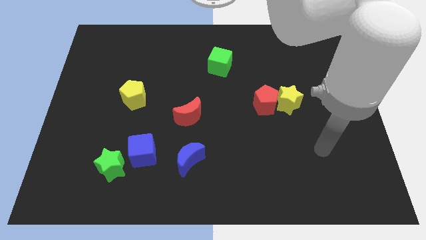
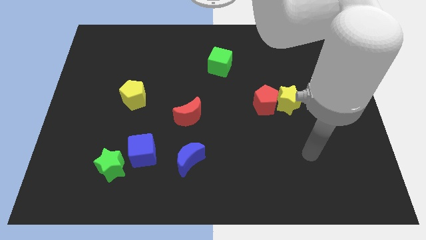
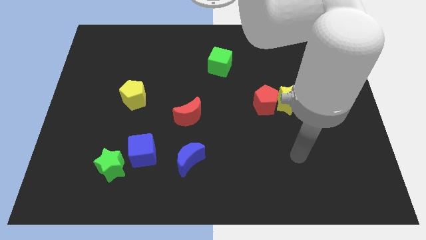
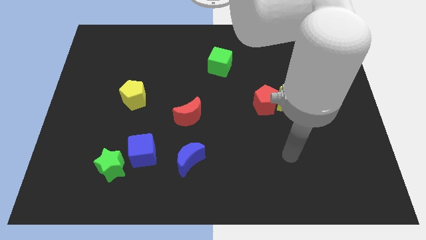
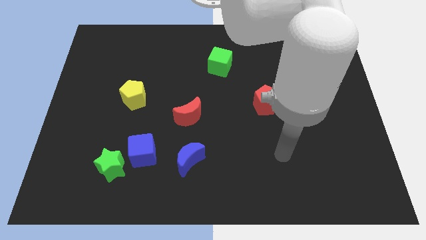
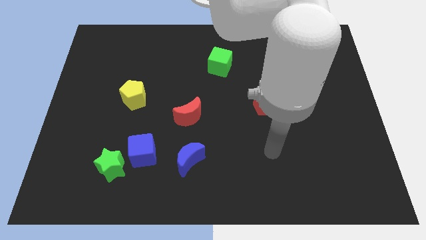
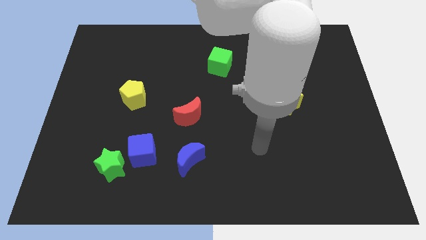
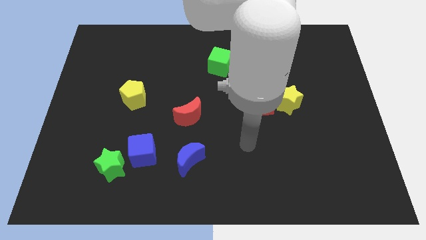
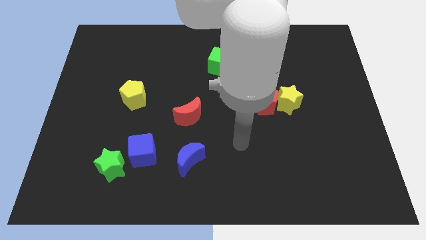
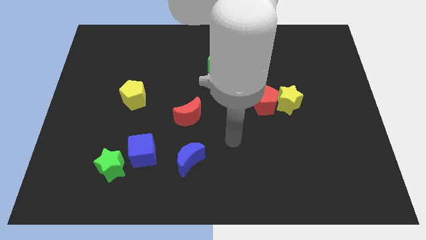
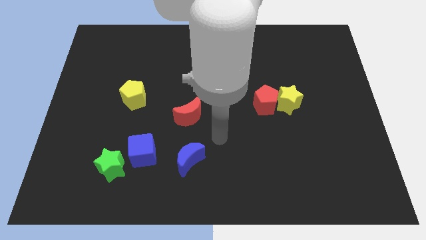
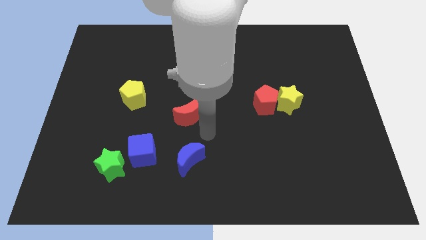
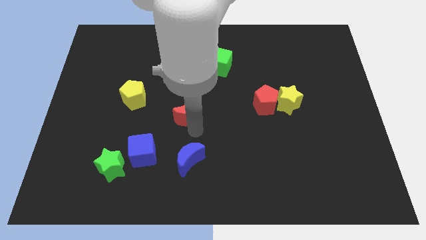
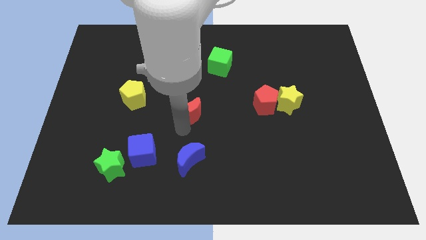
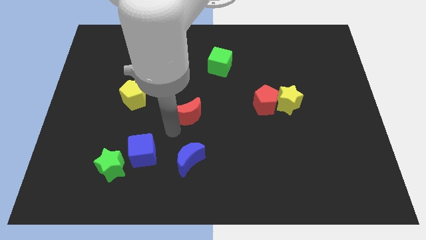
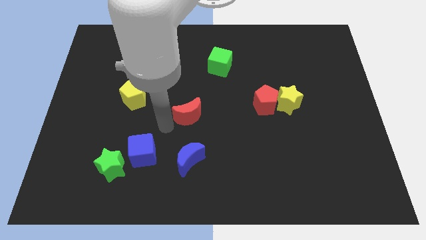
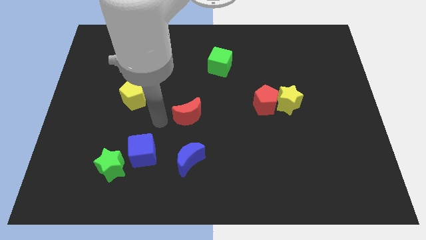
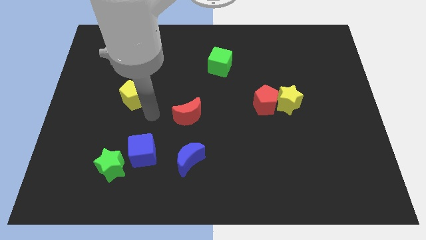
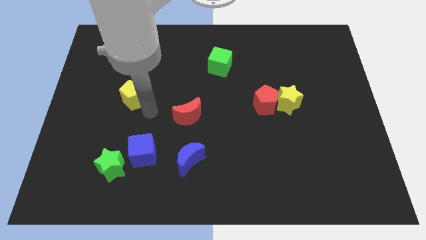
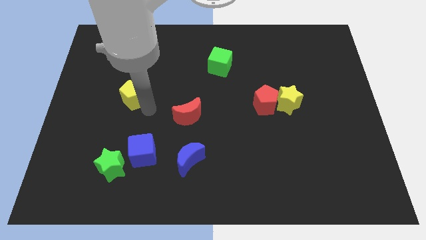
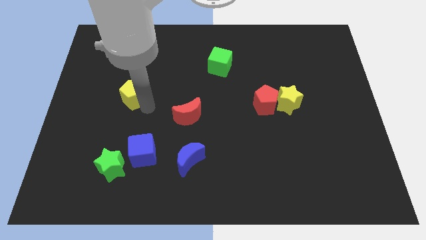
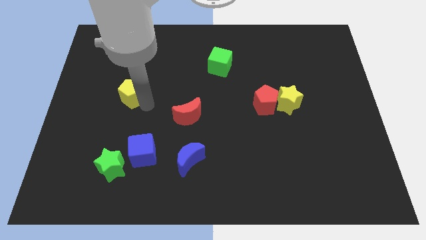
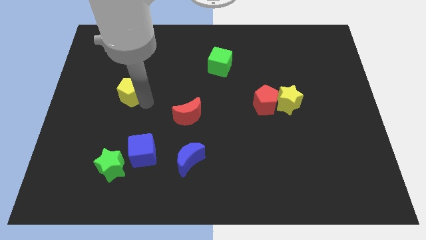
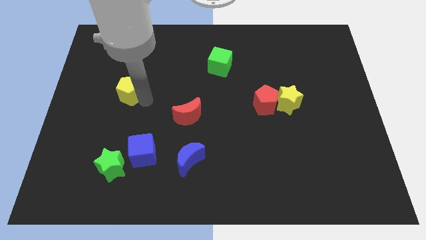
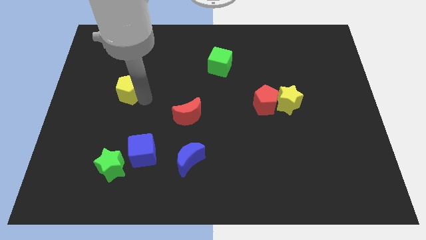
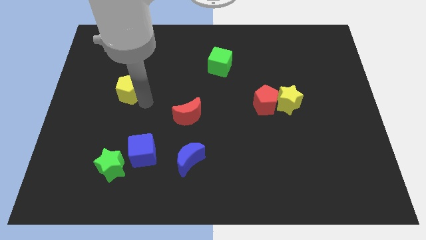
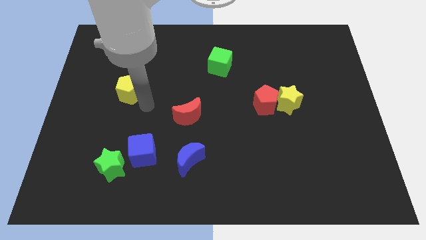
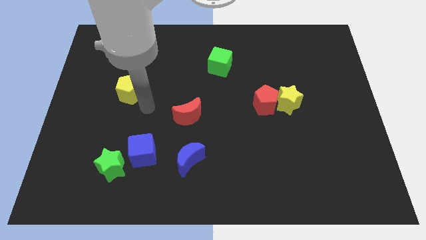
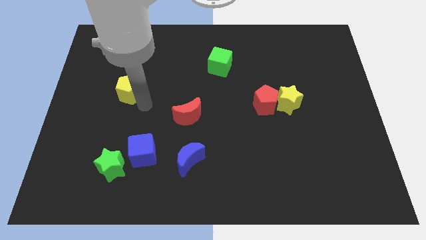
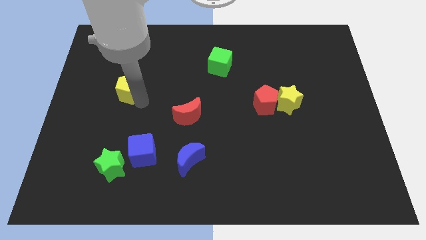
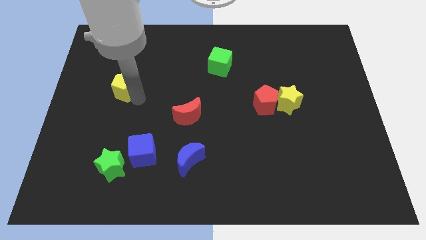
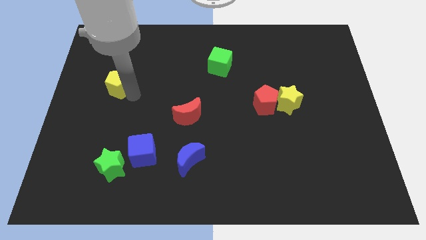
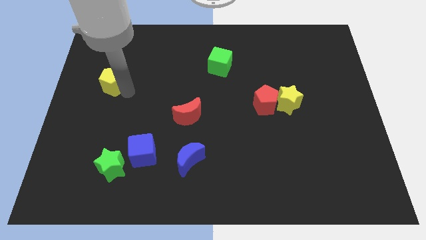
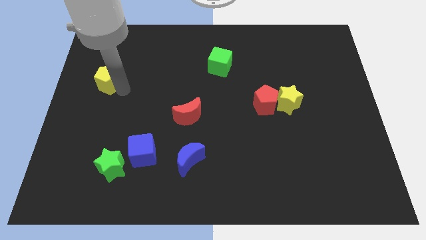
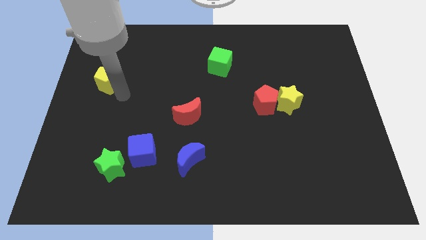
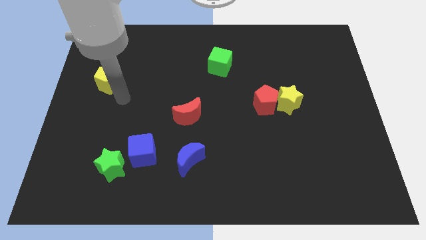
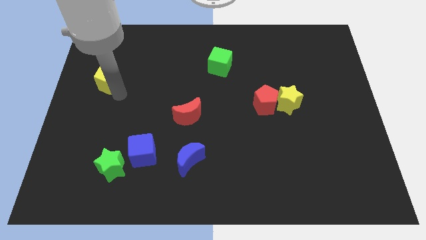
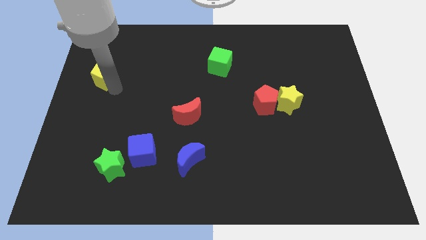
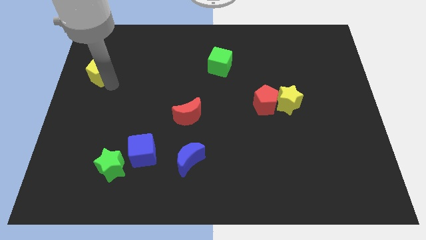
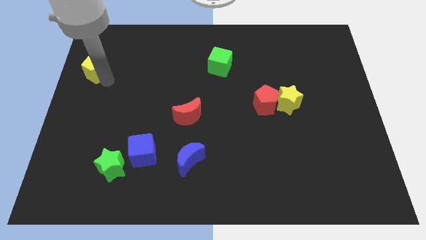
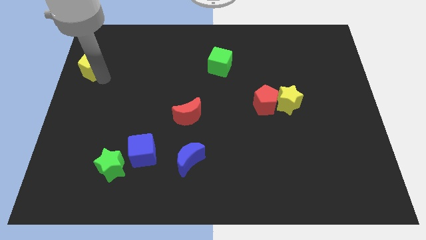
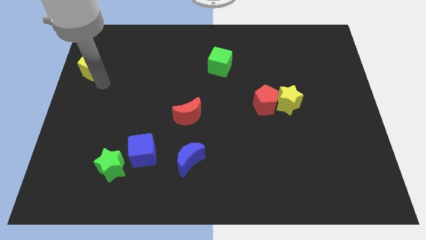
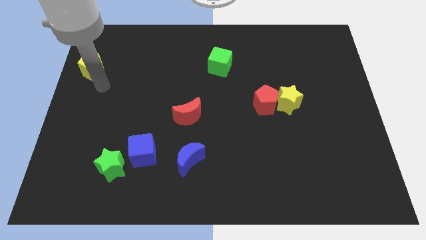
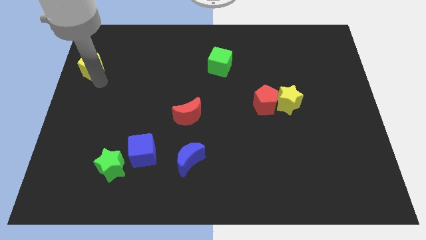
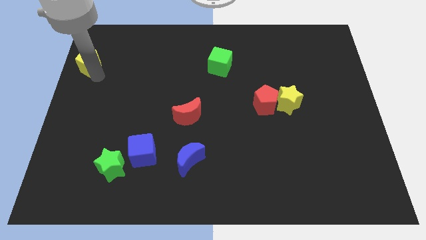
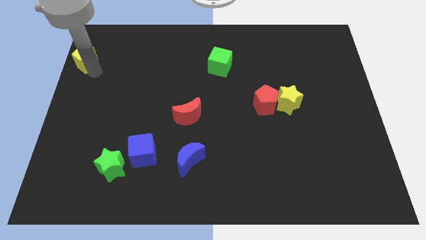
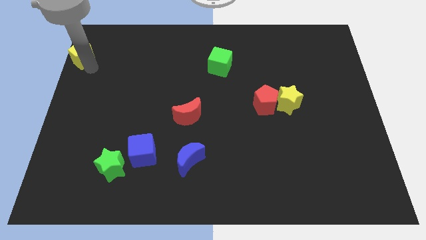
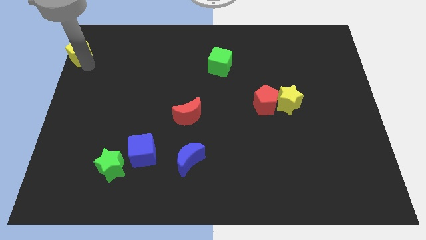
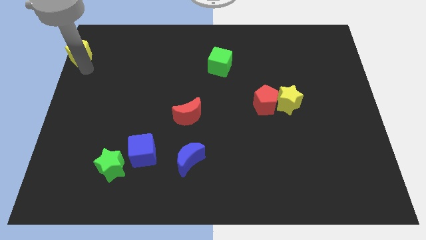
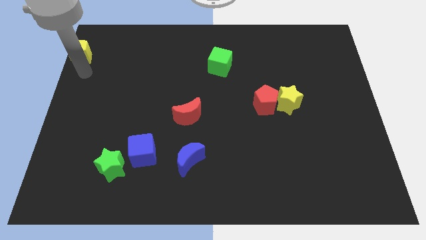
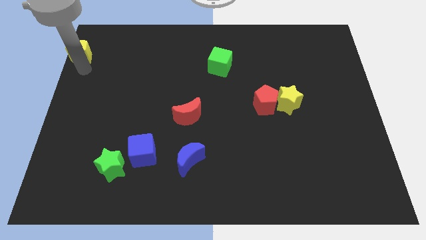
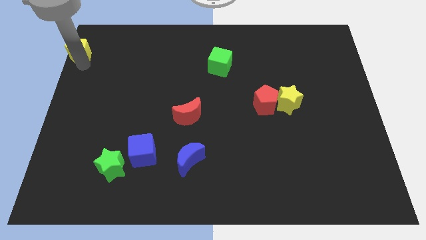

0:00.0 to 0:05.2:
move the yellow pentagon to the top left
